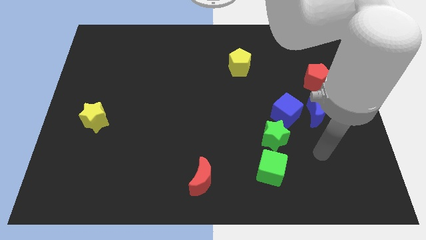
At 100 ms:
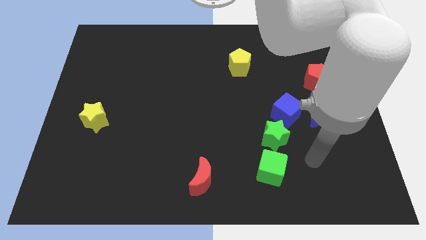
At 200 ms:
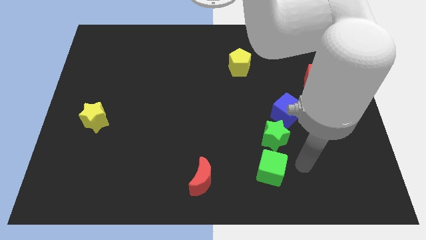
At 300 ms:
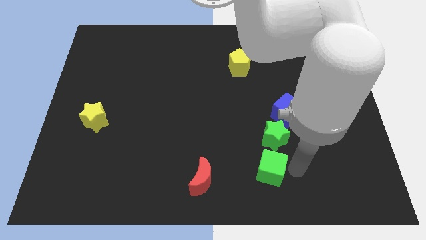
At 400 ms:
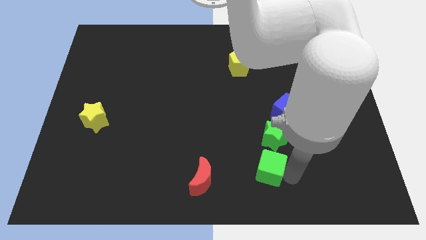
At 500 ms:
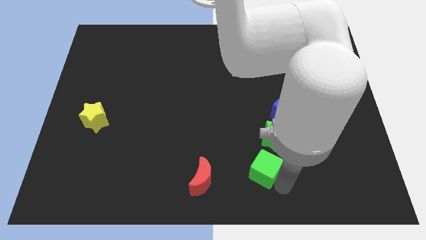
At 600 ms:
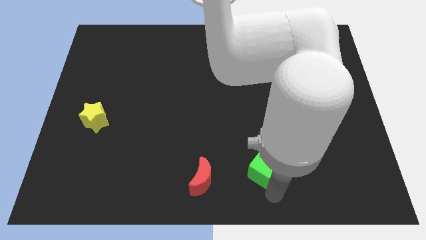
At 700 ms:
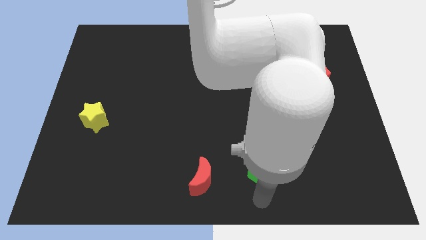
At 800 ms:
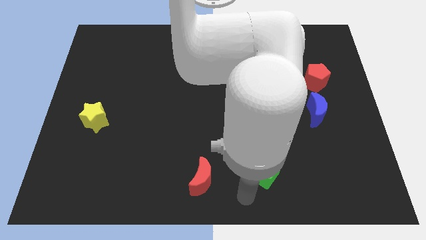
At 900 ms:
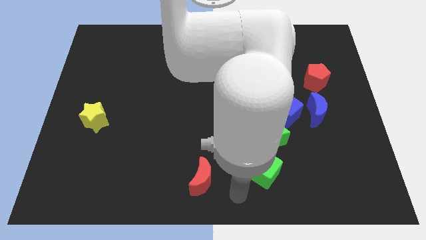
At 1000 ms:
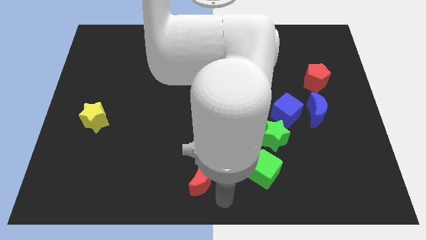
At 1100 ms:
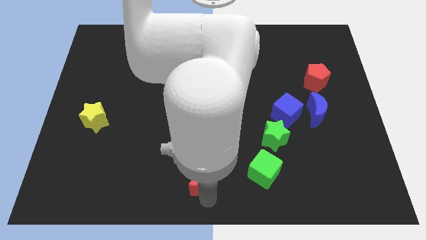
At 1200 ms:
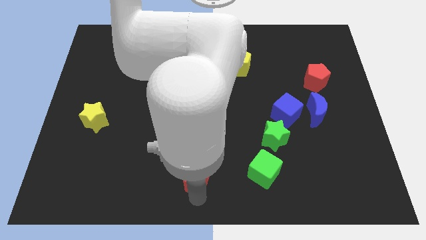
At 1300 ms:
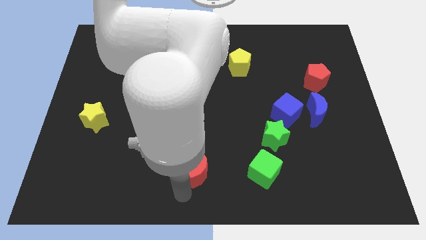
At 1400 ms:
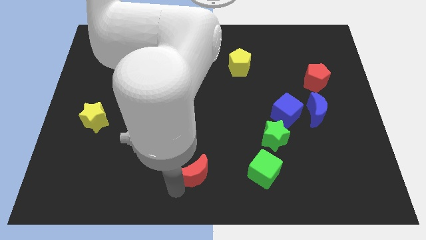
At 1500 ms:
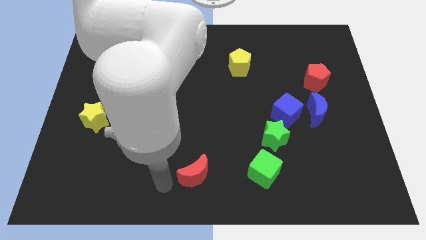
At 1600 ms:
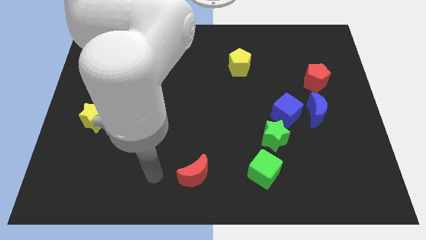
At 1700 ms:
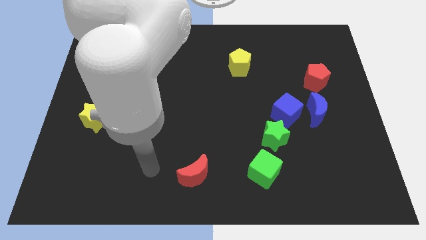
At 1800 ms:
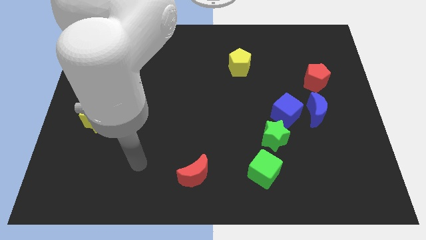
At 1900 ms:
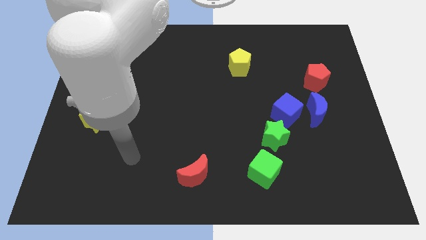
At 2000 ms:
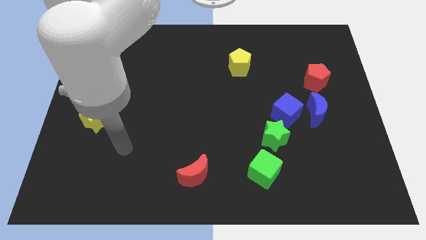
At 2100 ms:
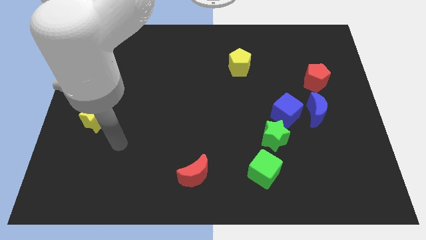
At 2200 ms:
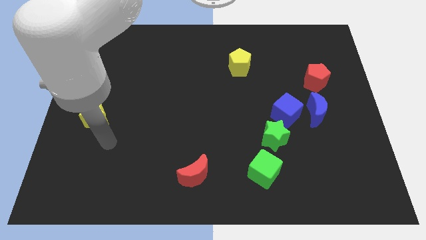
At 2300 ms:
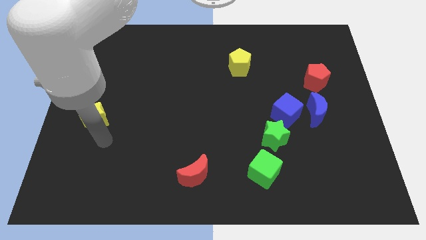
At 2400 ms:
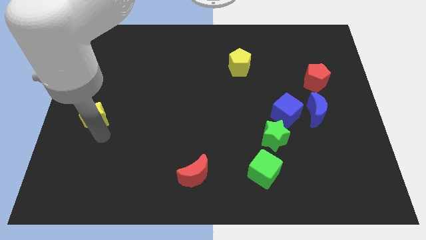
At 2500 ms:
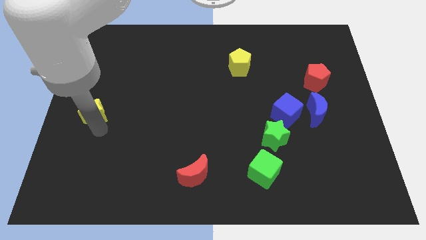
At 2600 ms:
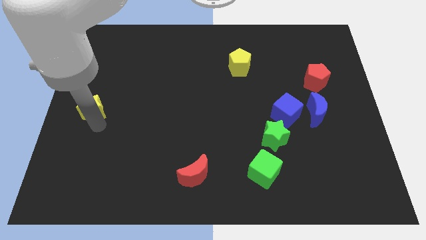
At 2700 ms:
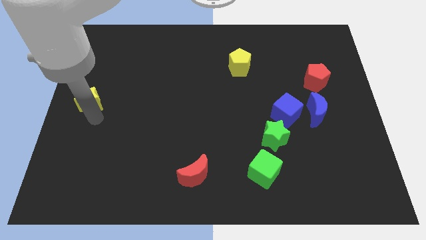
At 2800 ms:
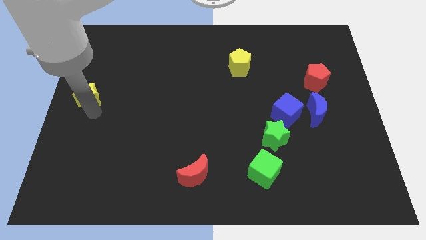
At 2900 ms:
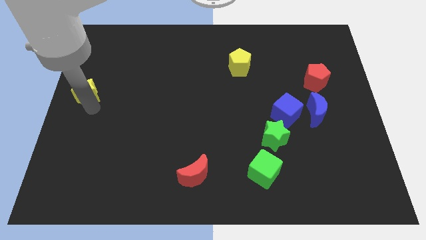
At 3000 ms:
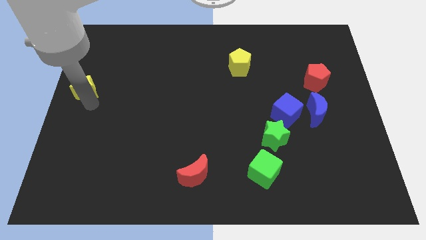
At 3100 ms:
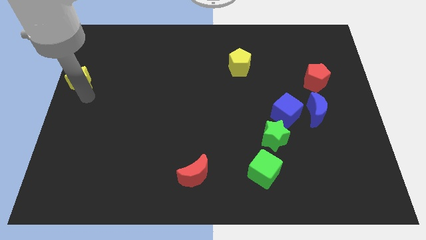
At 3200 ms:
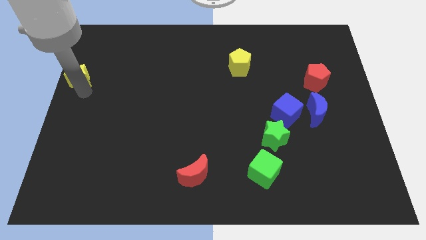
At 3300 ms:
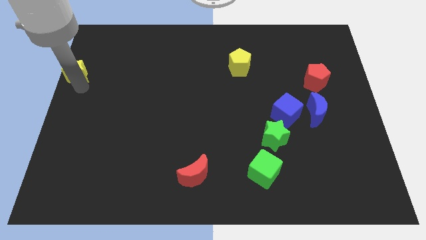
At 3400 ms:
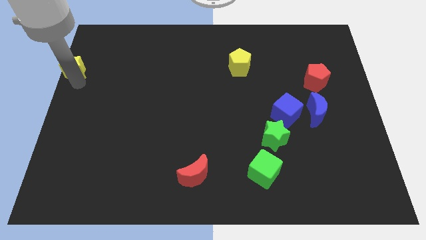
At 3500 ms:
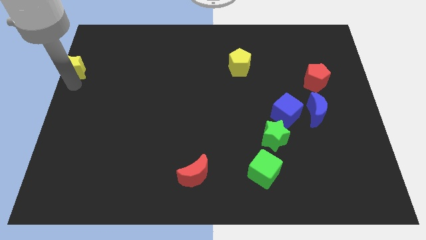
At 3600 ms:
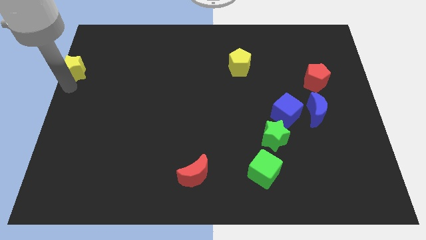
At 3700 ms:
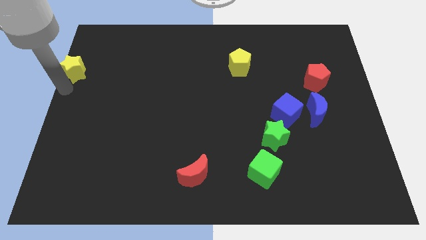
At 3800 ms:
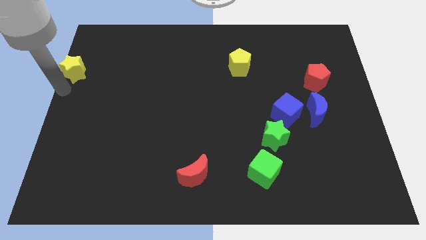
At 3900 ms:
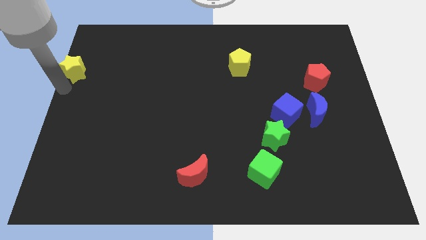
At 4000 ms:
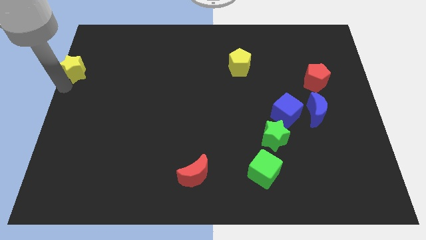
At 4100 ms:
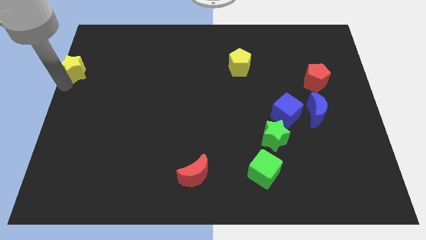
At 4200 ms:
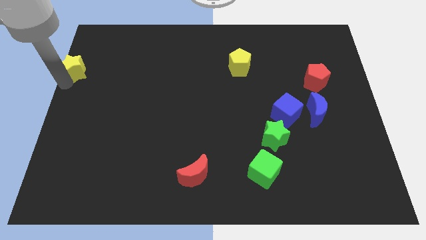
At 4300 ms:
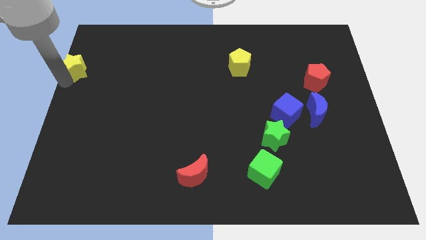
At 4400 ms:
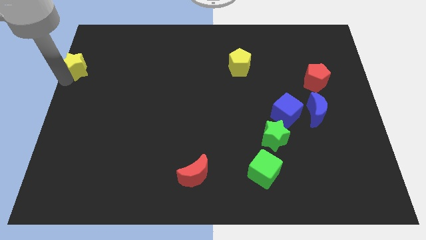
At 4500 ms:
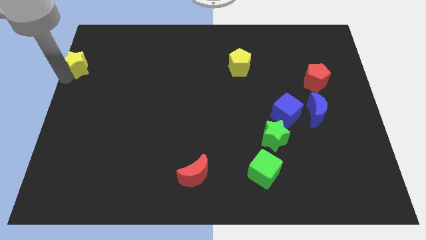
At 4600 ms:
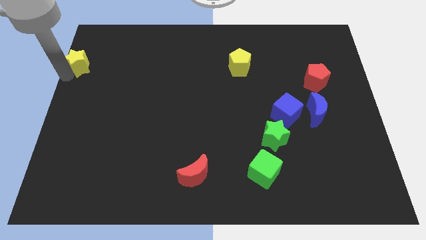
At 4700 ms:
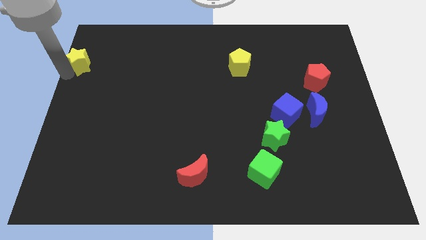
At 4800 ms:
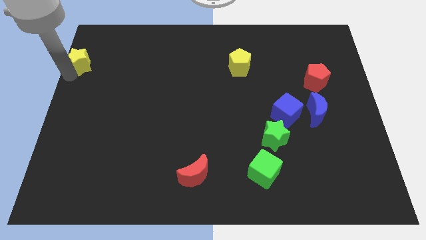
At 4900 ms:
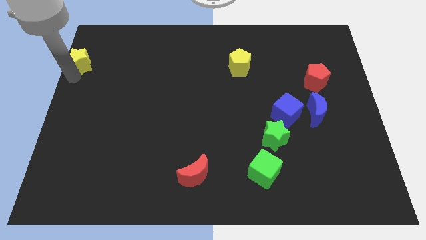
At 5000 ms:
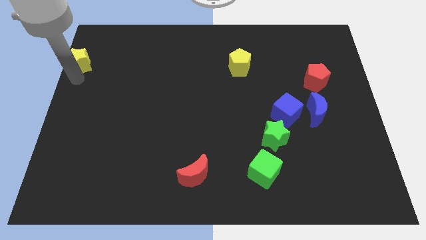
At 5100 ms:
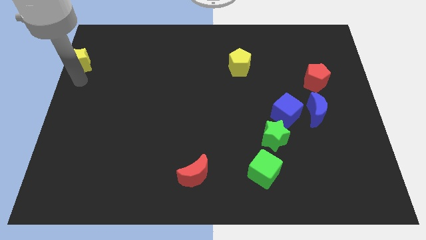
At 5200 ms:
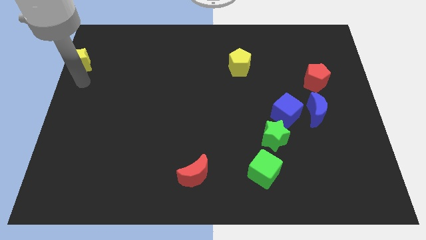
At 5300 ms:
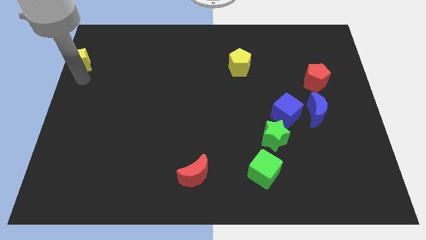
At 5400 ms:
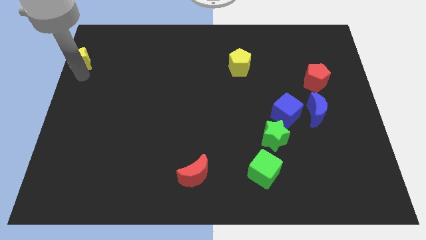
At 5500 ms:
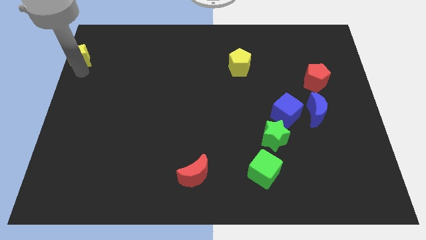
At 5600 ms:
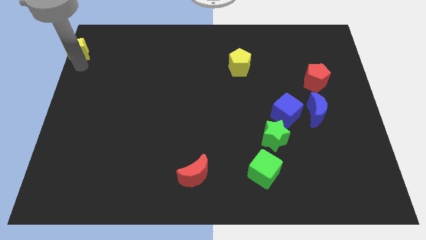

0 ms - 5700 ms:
move the yellow star to the top left

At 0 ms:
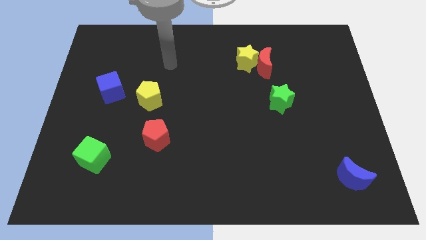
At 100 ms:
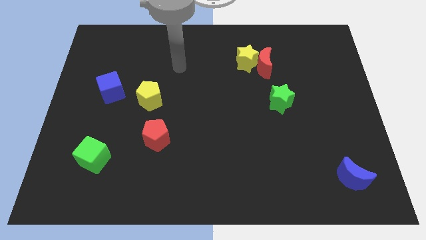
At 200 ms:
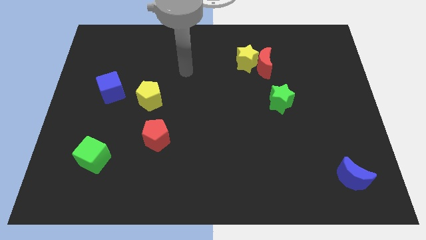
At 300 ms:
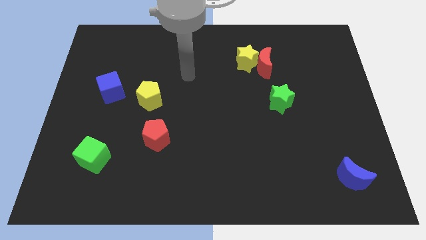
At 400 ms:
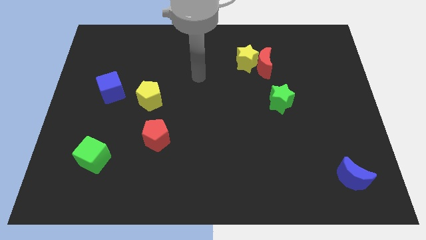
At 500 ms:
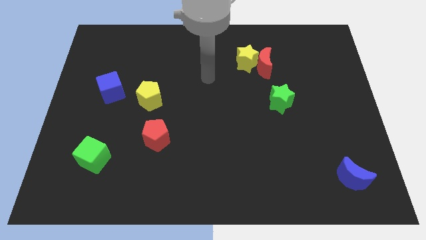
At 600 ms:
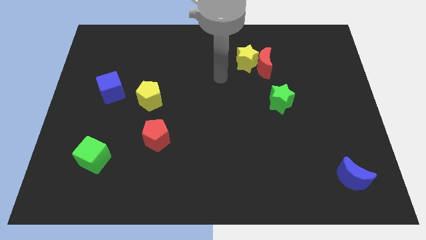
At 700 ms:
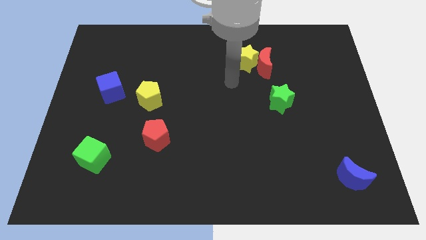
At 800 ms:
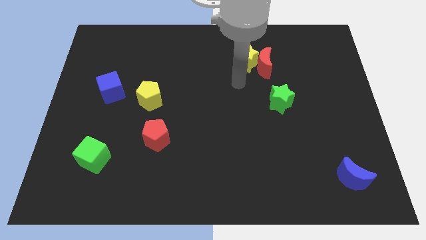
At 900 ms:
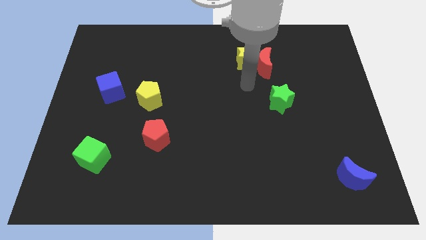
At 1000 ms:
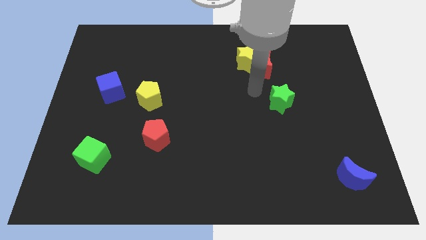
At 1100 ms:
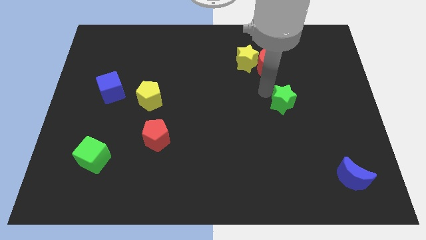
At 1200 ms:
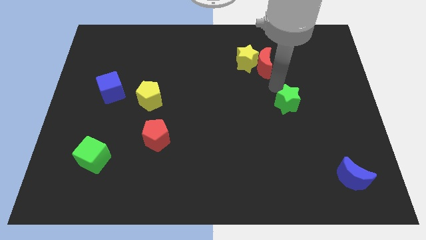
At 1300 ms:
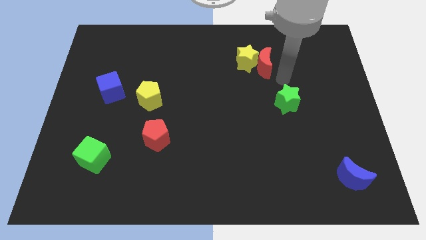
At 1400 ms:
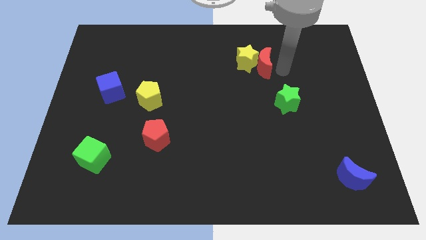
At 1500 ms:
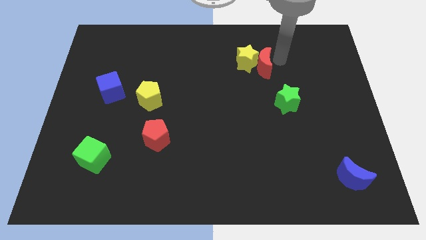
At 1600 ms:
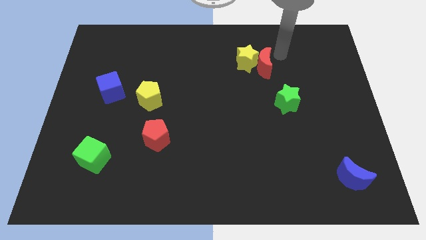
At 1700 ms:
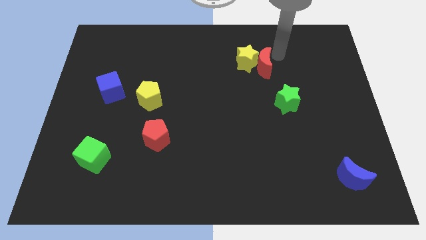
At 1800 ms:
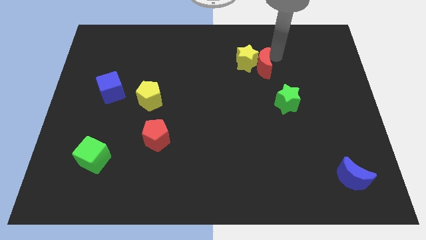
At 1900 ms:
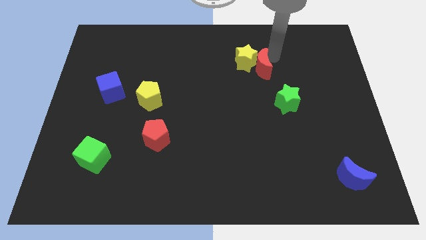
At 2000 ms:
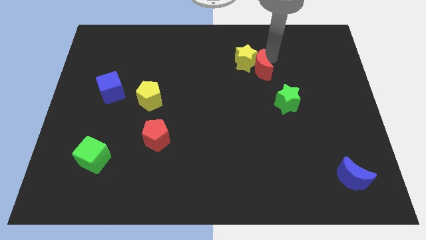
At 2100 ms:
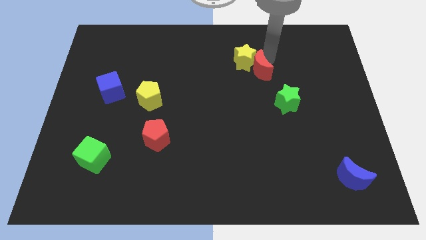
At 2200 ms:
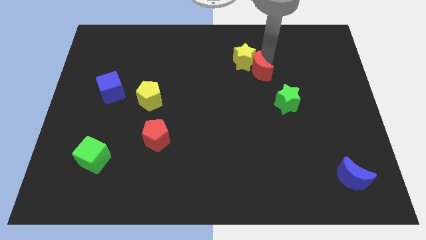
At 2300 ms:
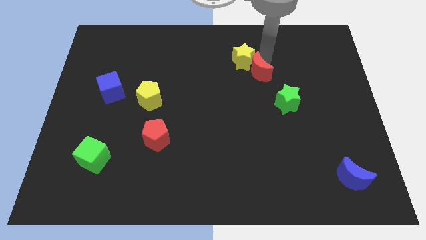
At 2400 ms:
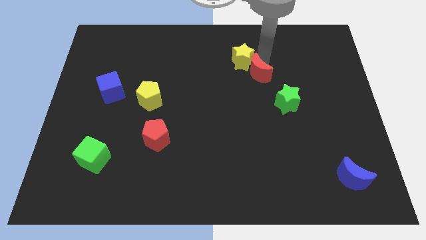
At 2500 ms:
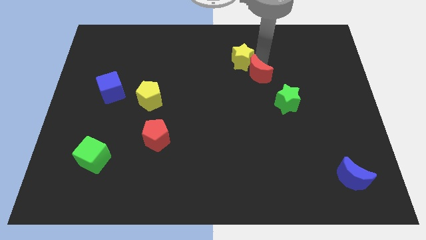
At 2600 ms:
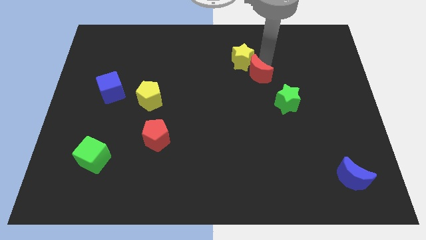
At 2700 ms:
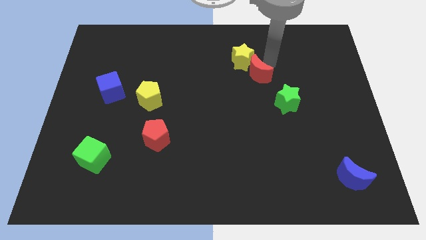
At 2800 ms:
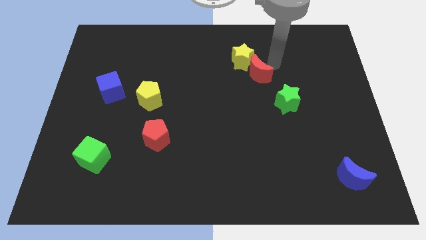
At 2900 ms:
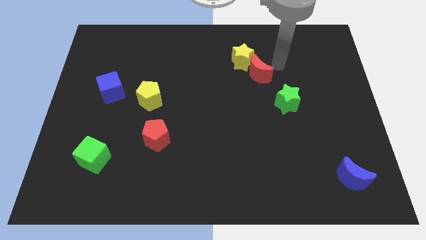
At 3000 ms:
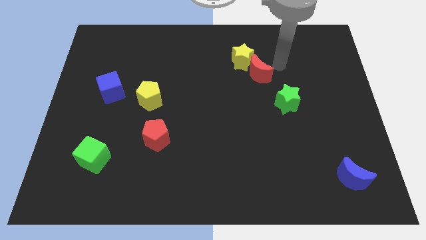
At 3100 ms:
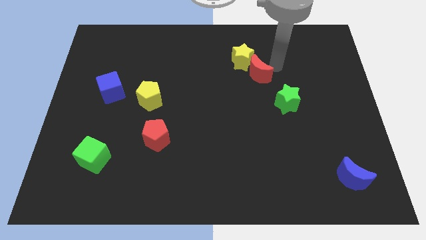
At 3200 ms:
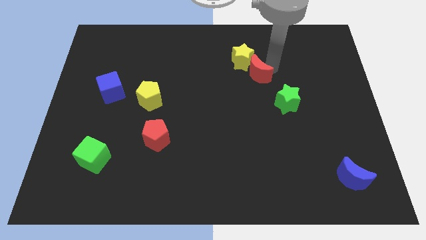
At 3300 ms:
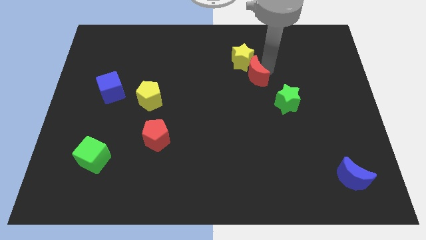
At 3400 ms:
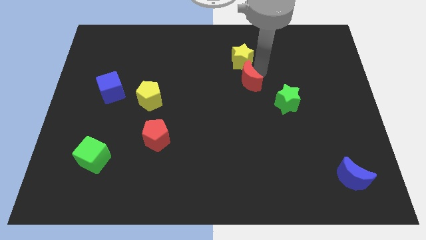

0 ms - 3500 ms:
push the red moon to the center of the board
